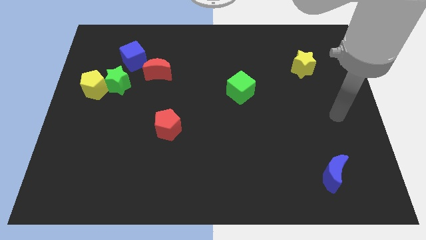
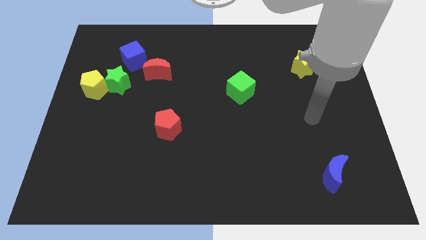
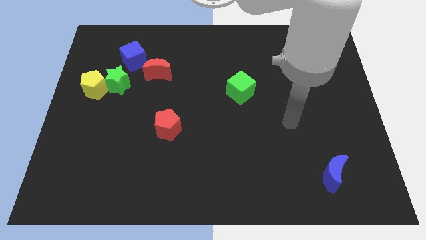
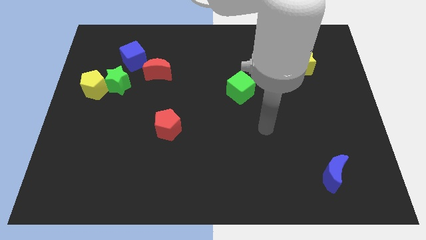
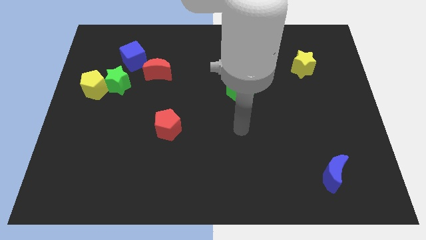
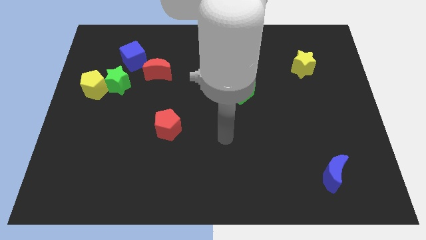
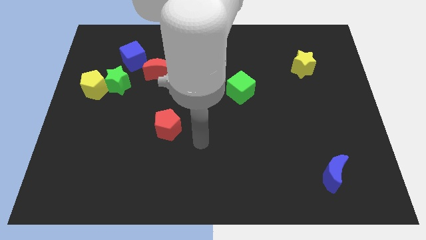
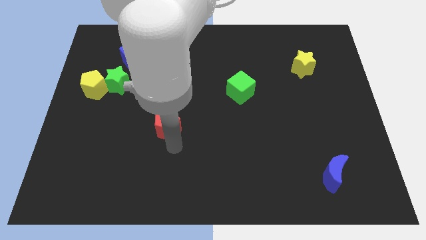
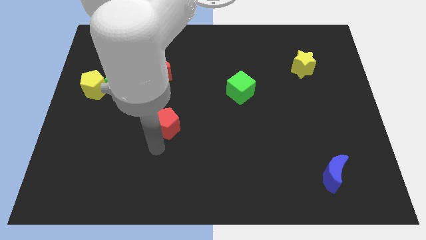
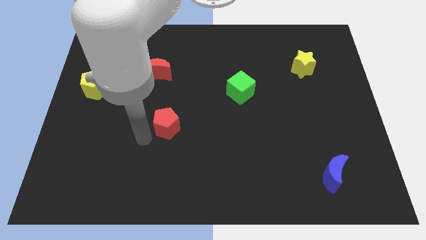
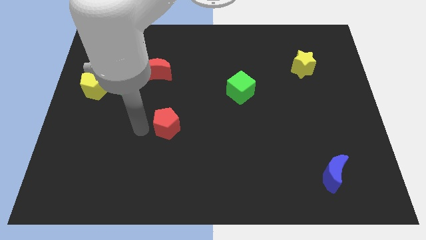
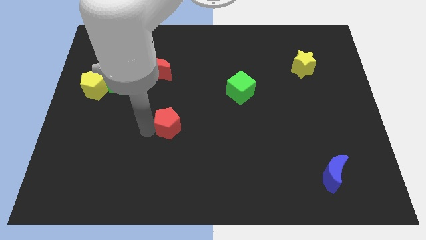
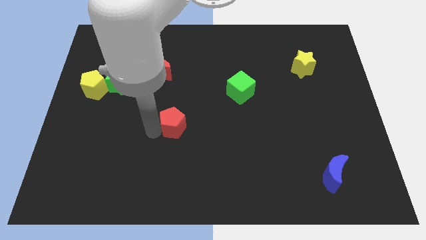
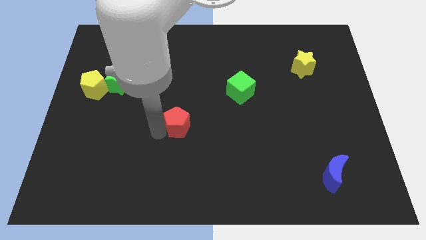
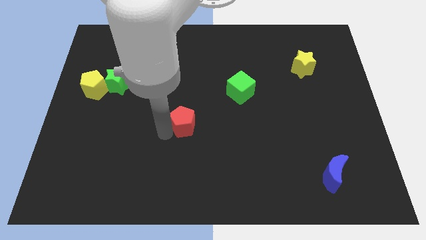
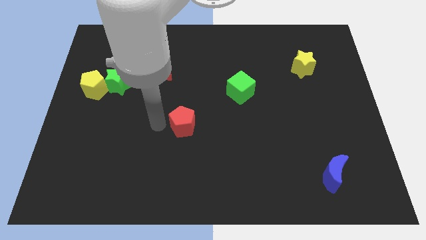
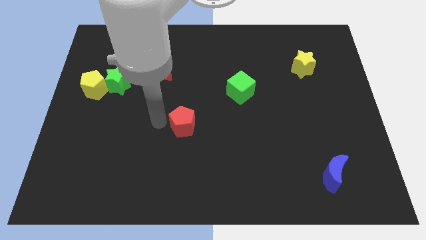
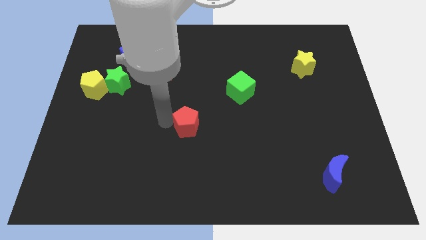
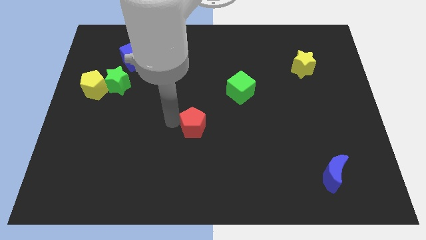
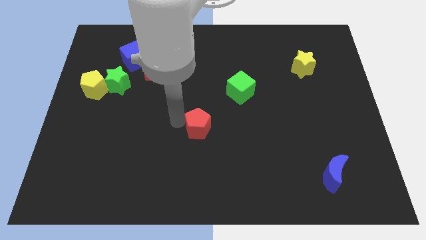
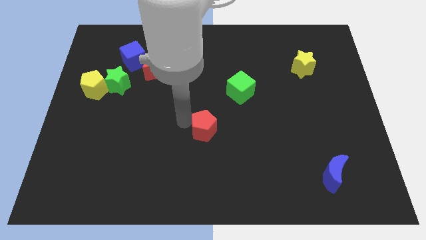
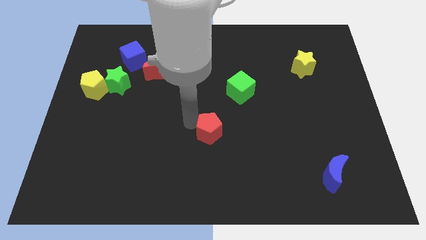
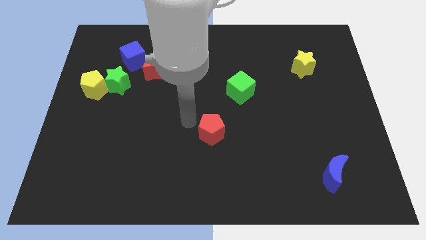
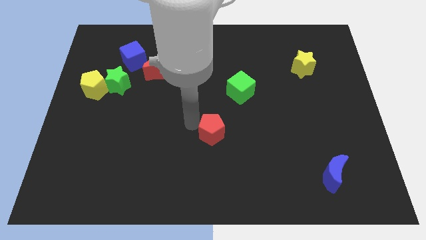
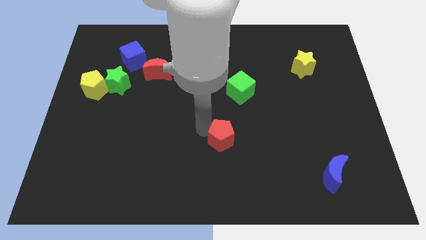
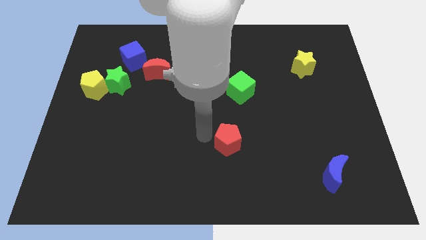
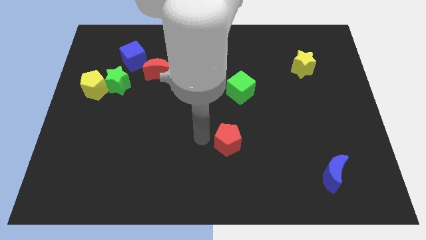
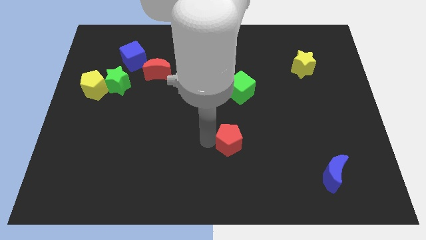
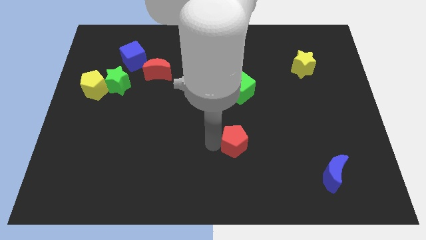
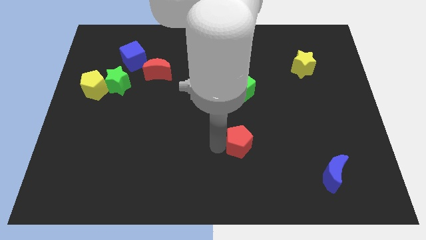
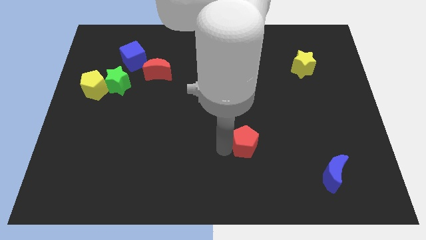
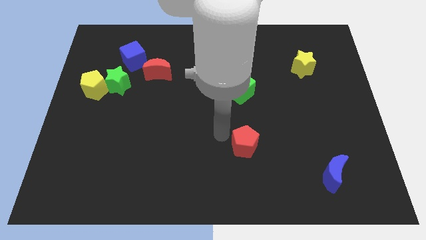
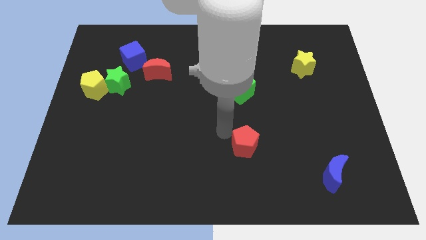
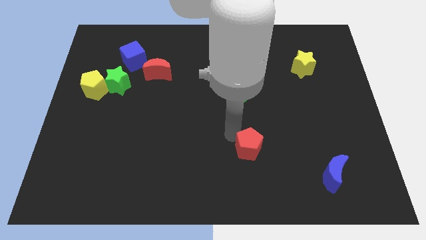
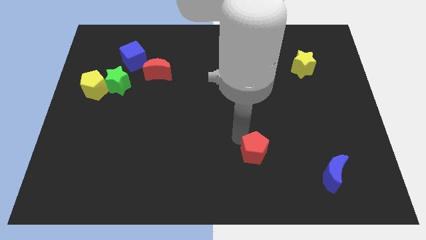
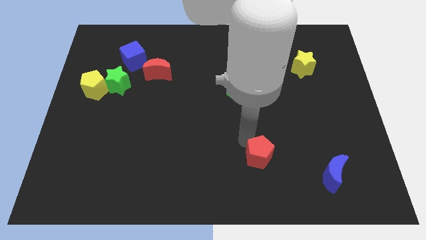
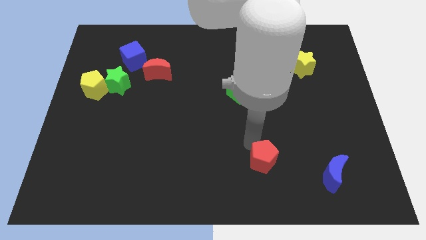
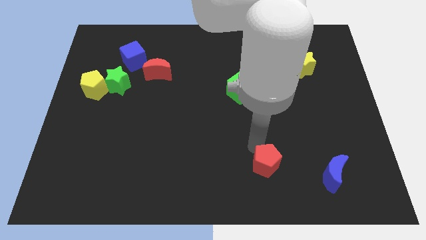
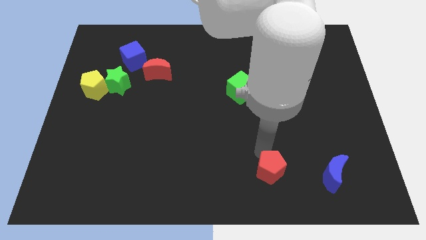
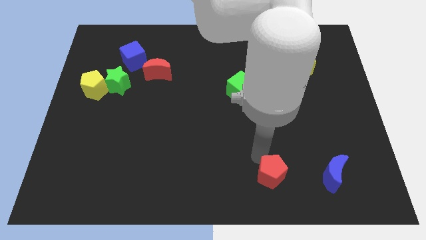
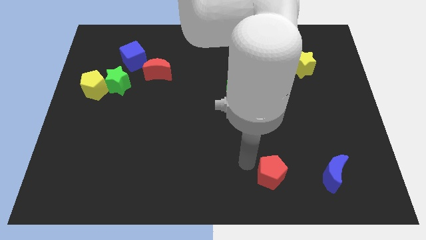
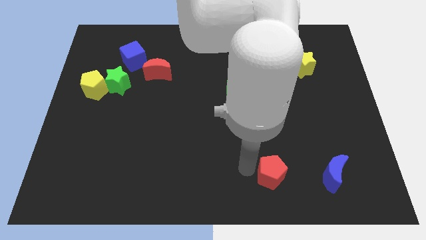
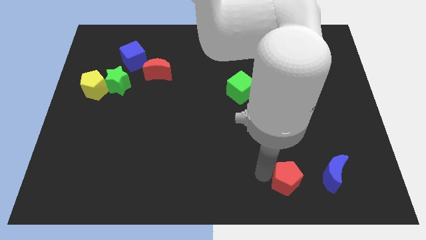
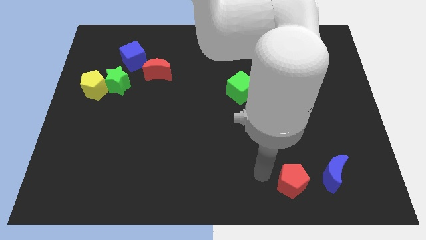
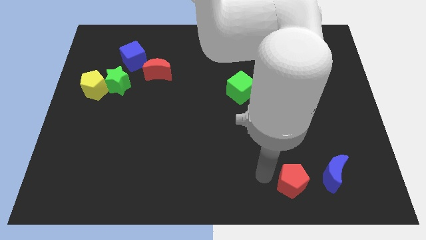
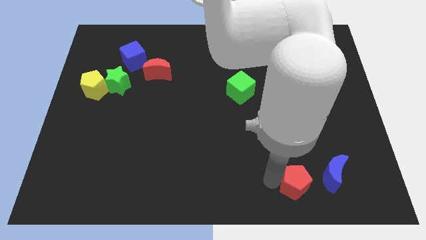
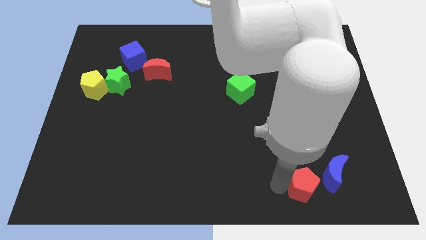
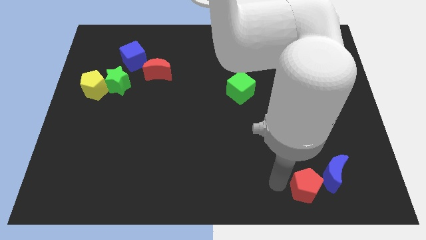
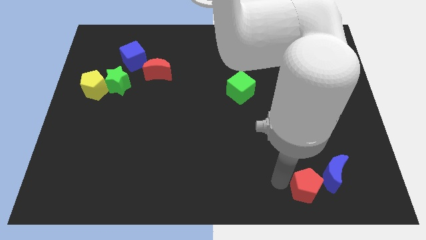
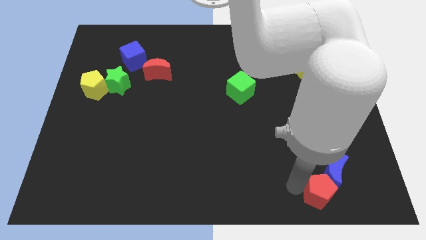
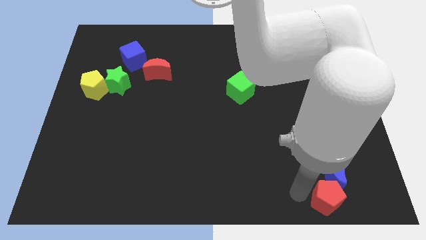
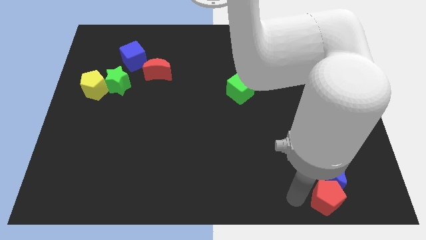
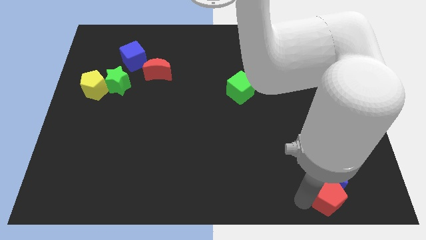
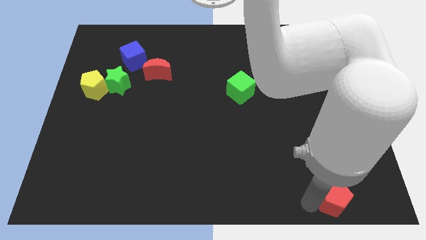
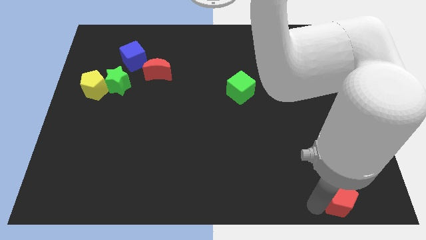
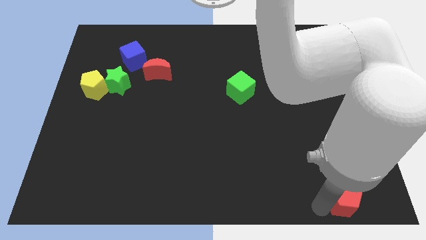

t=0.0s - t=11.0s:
put the red pentagon to the bottom right corner
